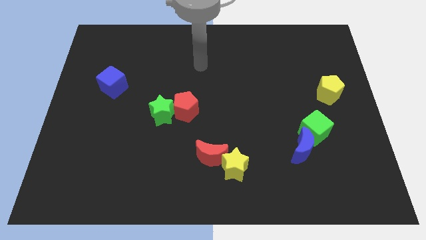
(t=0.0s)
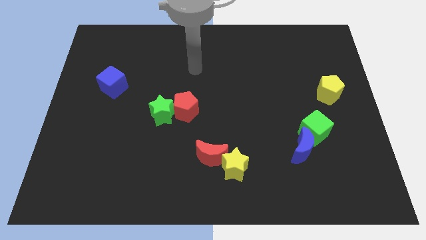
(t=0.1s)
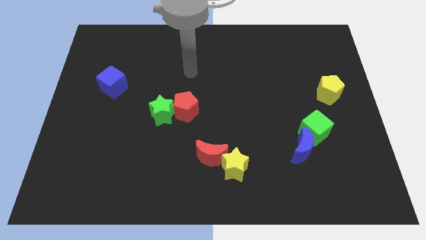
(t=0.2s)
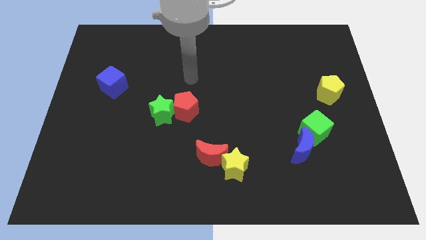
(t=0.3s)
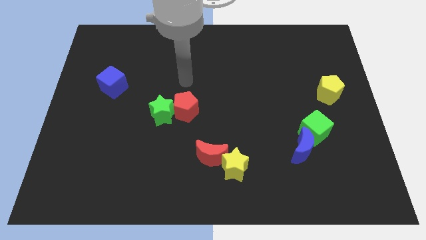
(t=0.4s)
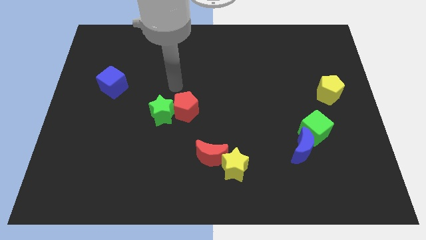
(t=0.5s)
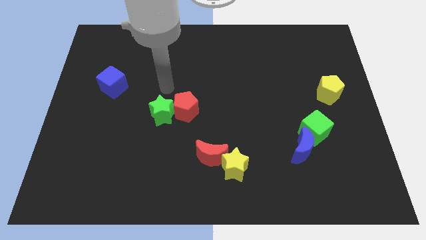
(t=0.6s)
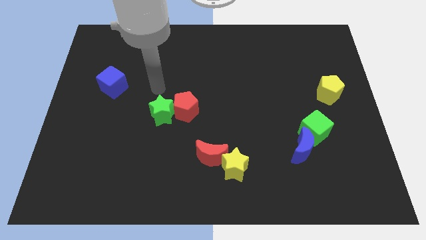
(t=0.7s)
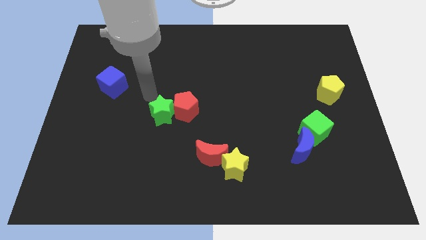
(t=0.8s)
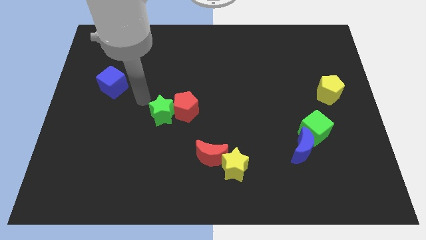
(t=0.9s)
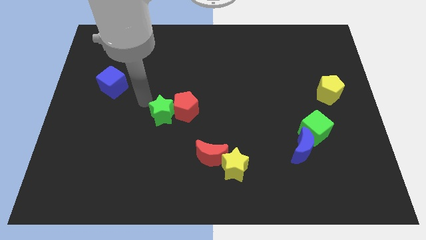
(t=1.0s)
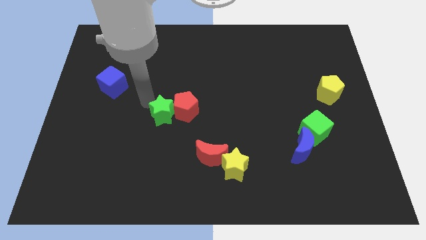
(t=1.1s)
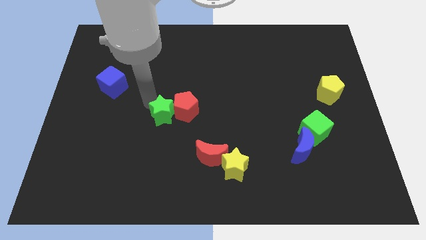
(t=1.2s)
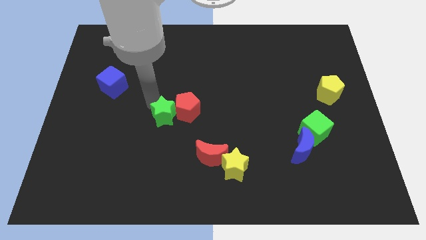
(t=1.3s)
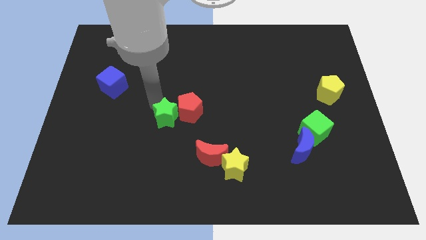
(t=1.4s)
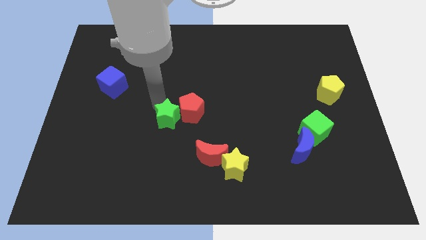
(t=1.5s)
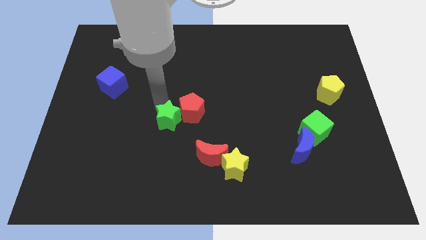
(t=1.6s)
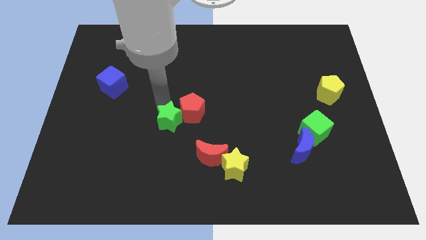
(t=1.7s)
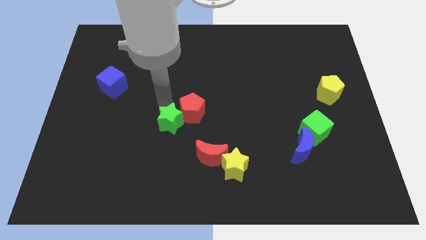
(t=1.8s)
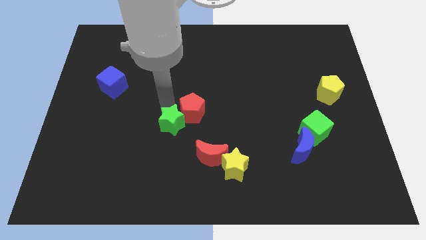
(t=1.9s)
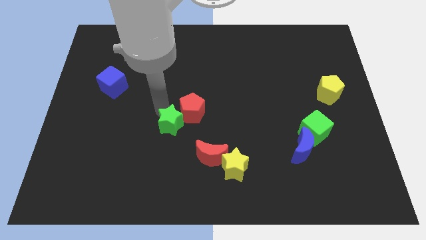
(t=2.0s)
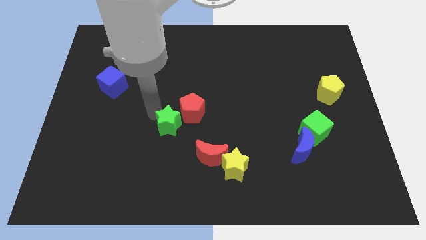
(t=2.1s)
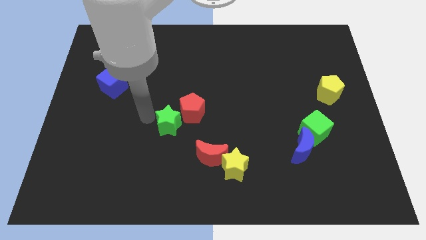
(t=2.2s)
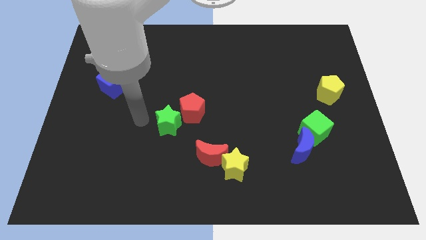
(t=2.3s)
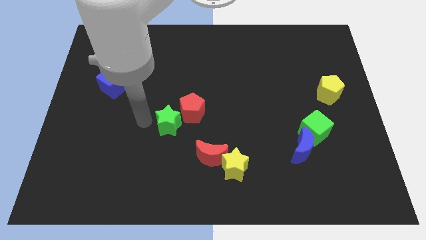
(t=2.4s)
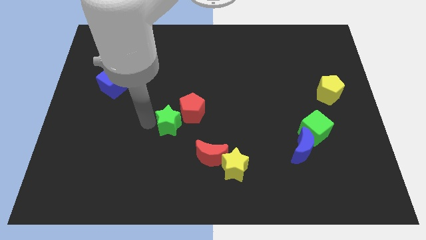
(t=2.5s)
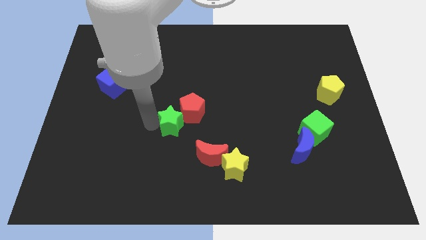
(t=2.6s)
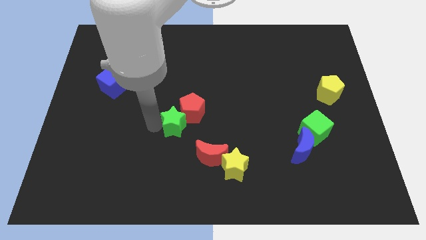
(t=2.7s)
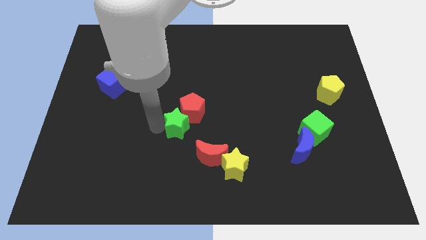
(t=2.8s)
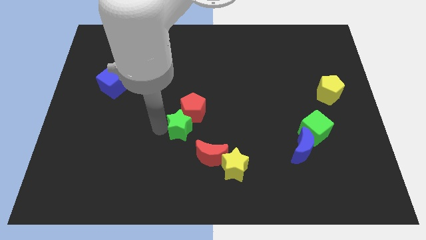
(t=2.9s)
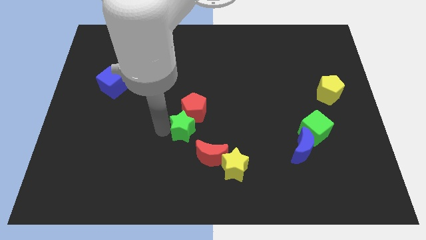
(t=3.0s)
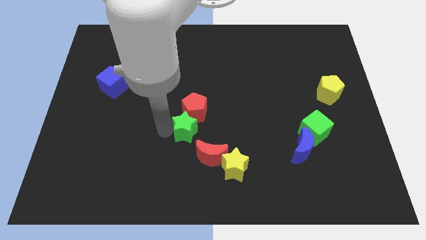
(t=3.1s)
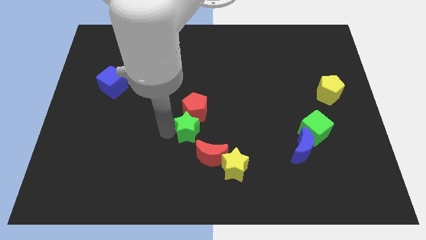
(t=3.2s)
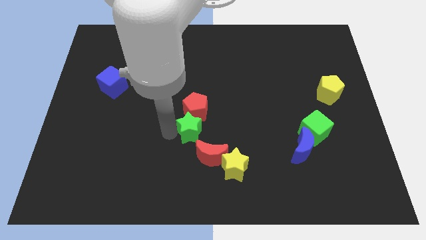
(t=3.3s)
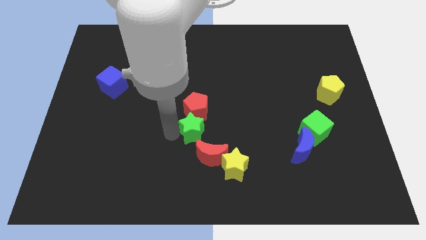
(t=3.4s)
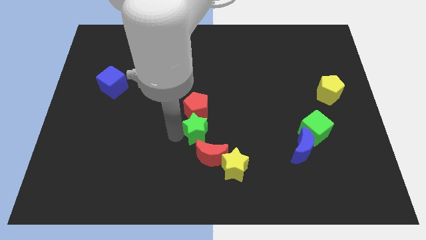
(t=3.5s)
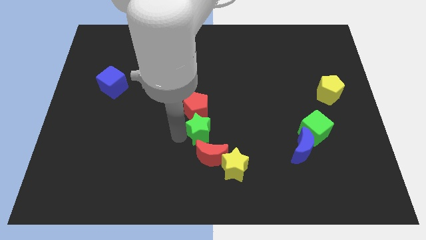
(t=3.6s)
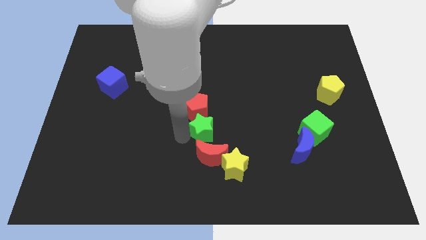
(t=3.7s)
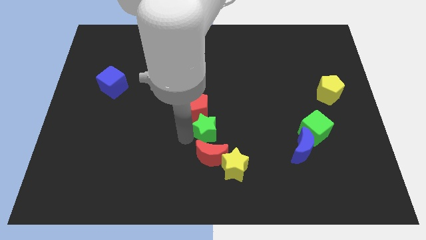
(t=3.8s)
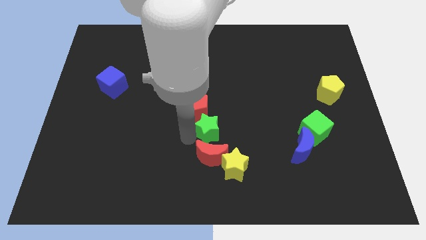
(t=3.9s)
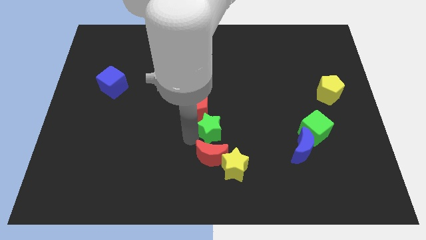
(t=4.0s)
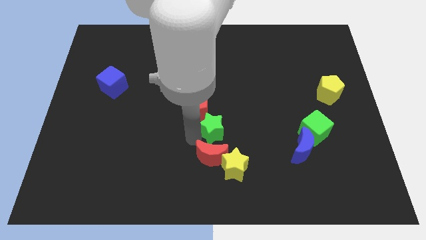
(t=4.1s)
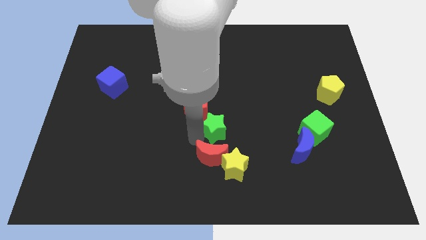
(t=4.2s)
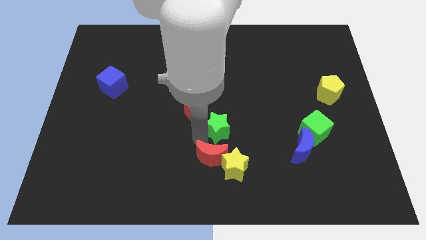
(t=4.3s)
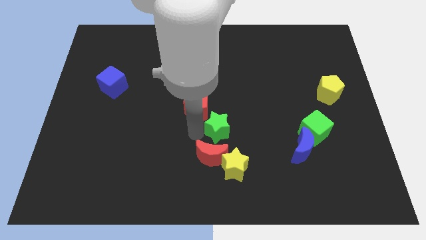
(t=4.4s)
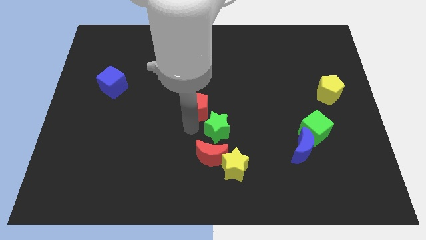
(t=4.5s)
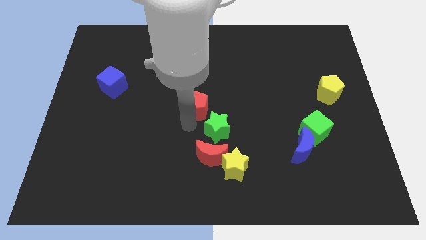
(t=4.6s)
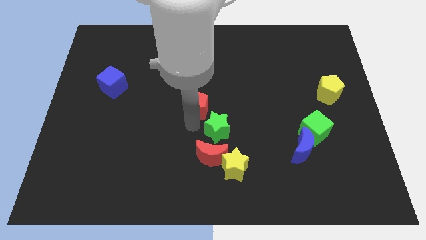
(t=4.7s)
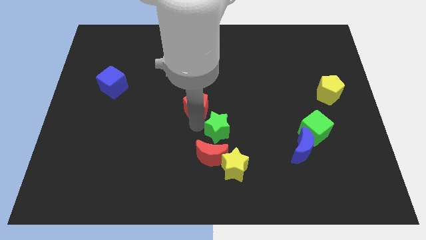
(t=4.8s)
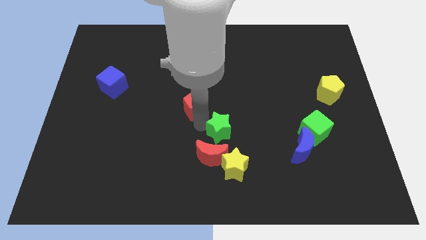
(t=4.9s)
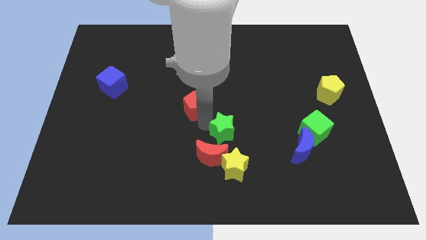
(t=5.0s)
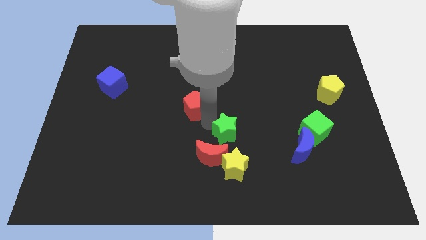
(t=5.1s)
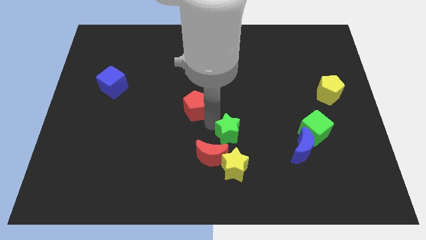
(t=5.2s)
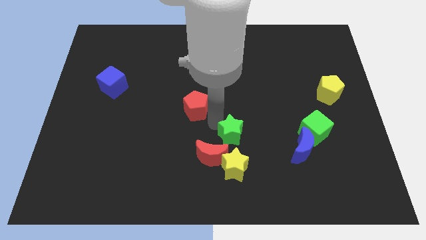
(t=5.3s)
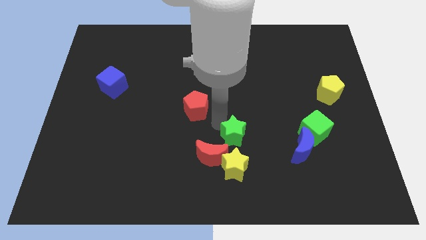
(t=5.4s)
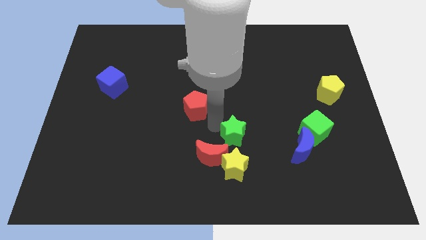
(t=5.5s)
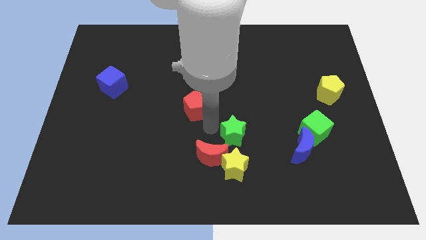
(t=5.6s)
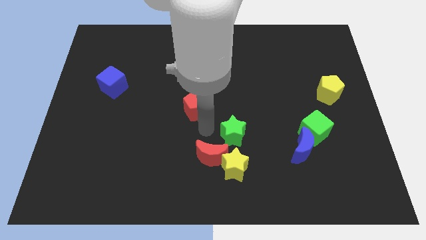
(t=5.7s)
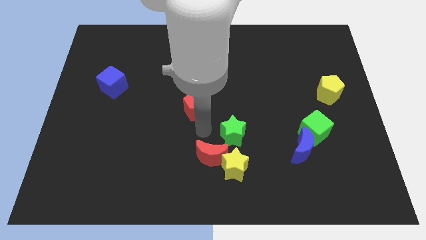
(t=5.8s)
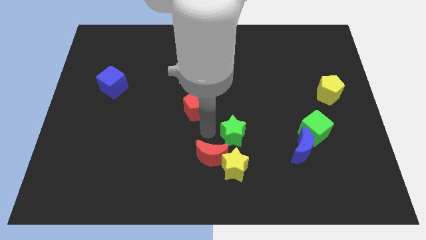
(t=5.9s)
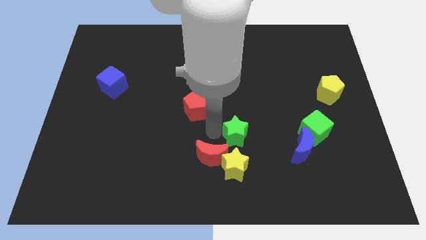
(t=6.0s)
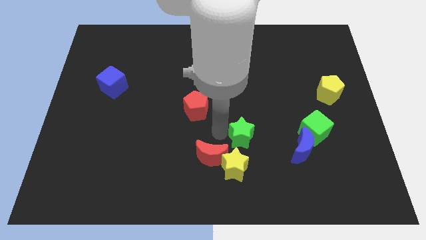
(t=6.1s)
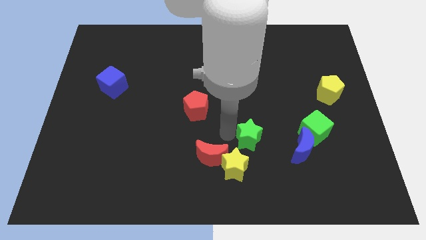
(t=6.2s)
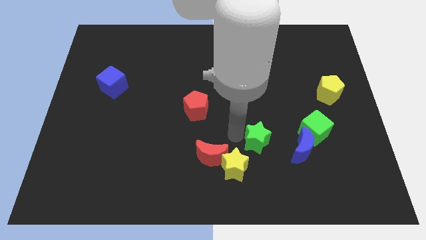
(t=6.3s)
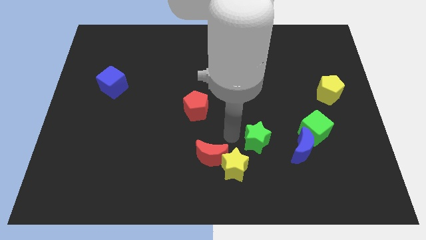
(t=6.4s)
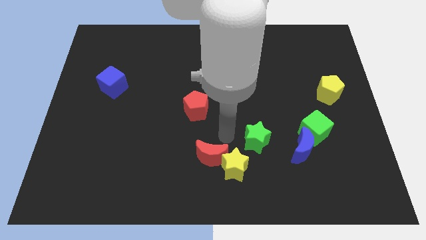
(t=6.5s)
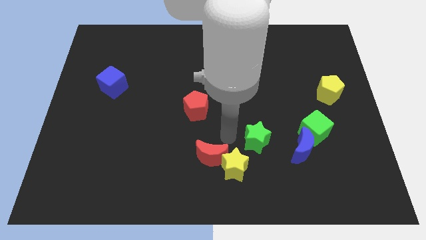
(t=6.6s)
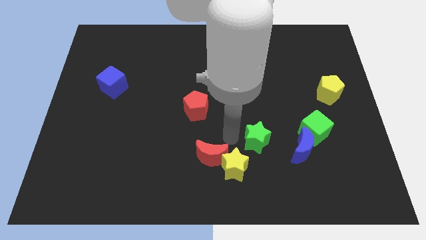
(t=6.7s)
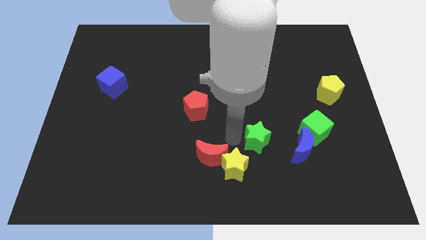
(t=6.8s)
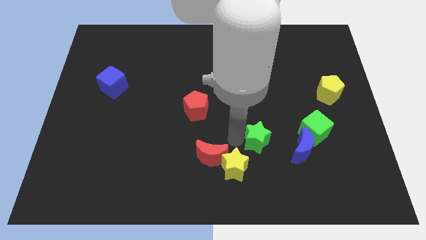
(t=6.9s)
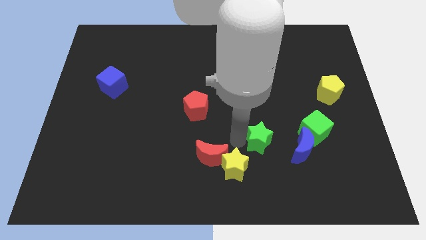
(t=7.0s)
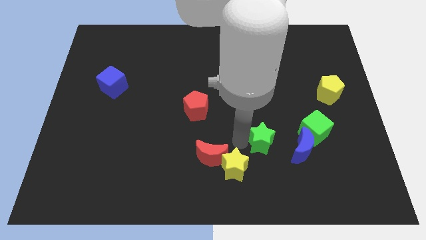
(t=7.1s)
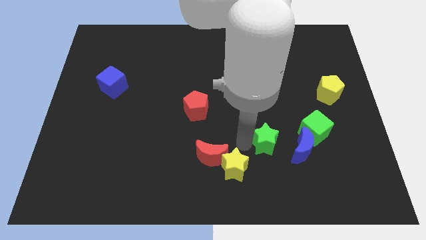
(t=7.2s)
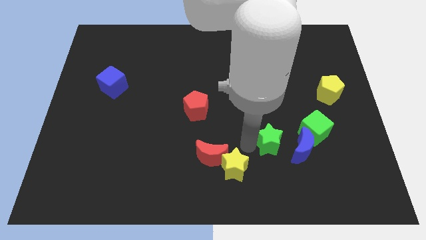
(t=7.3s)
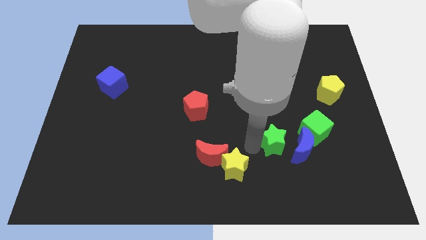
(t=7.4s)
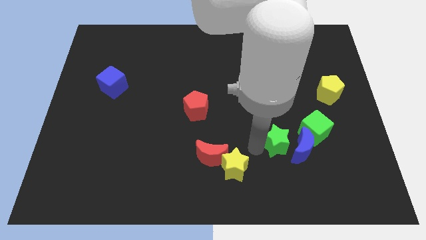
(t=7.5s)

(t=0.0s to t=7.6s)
move the green star next to the blue moon
